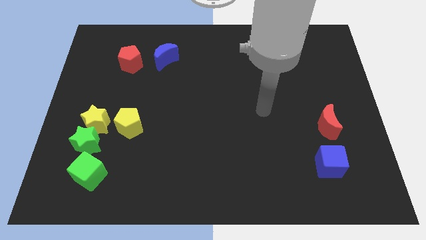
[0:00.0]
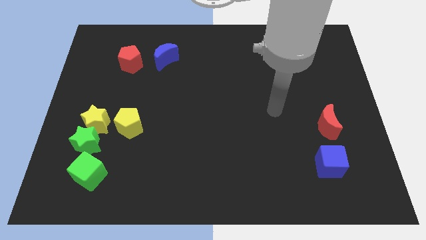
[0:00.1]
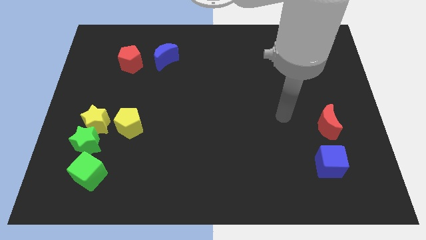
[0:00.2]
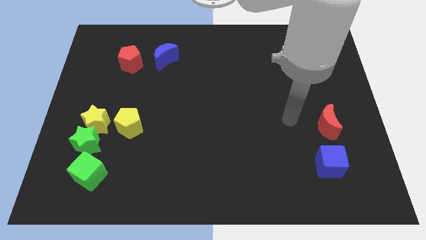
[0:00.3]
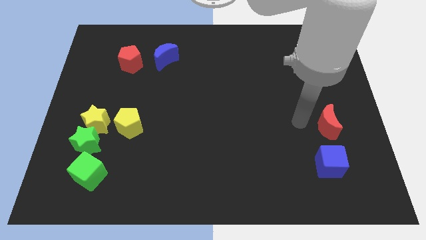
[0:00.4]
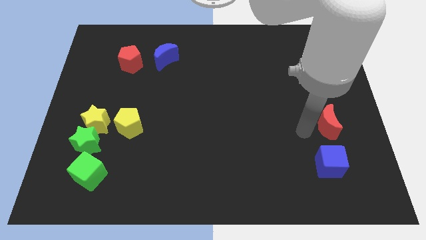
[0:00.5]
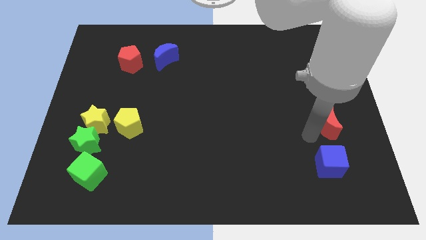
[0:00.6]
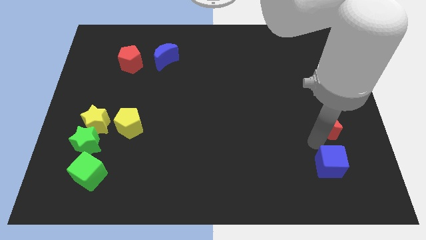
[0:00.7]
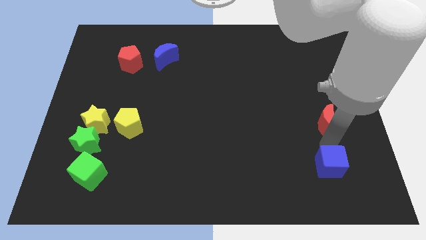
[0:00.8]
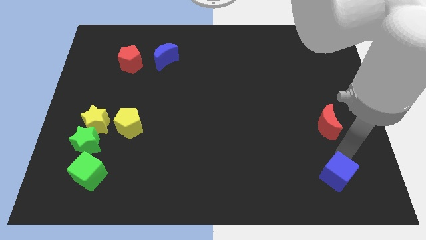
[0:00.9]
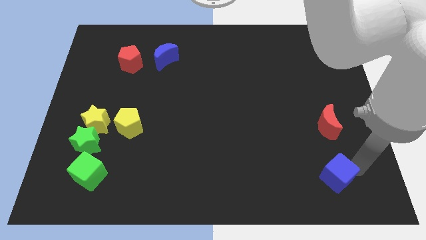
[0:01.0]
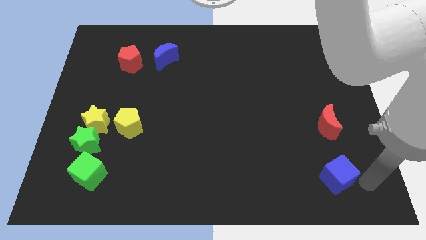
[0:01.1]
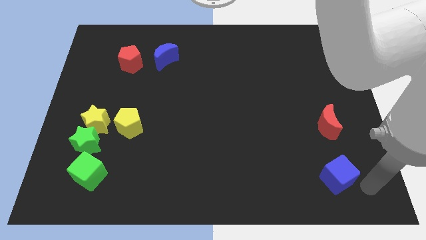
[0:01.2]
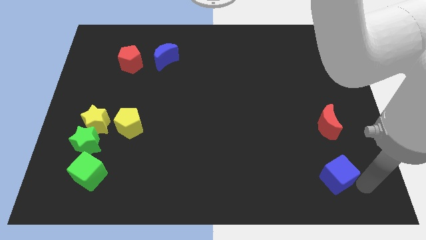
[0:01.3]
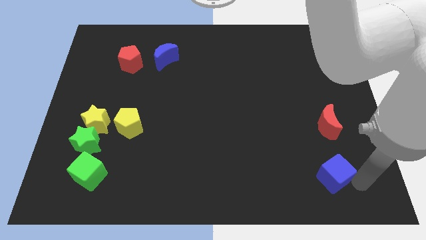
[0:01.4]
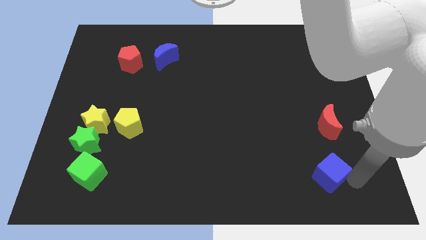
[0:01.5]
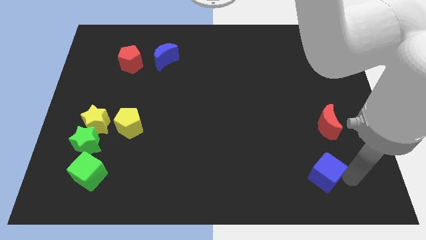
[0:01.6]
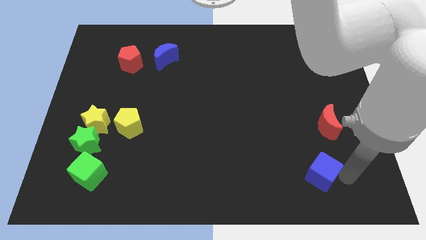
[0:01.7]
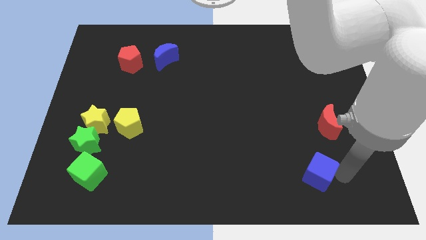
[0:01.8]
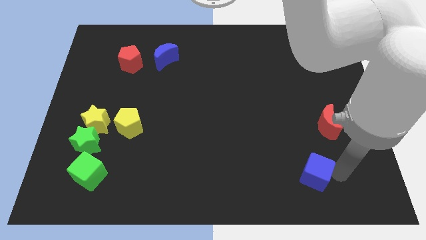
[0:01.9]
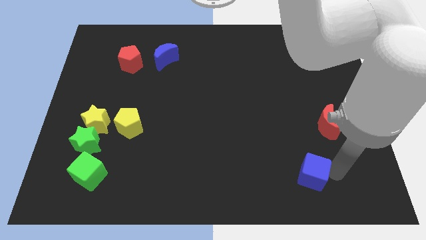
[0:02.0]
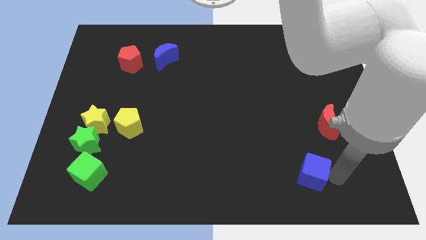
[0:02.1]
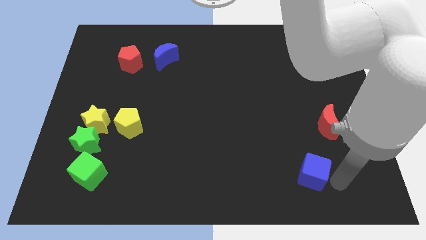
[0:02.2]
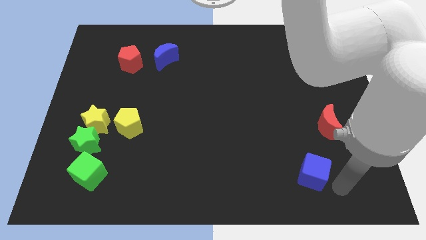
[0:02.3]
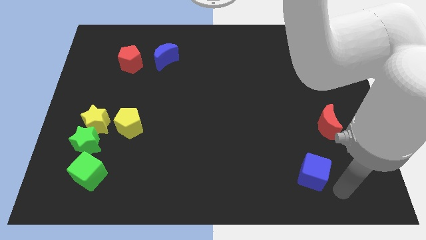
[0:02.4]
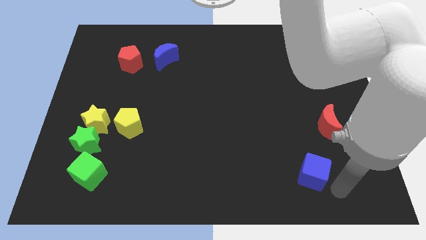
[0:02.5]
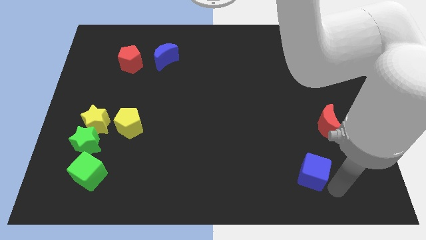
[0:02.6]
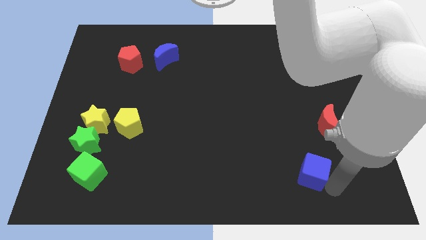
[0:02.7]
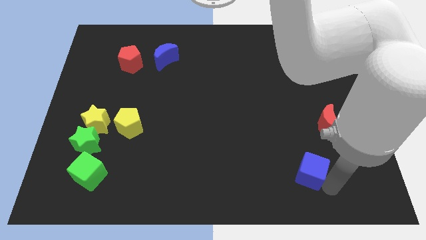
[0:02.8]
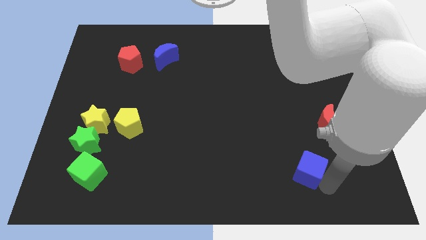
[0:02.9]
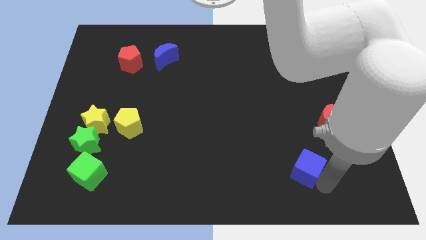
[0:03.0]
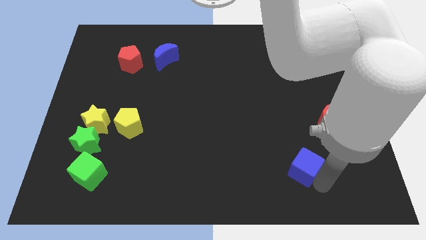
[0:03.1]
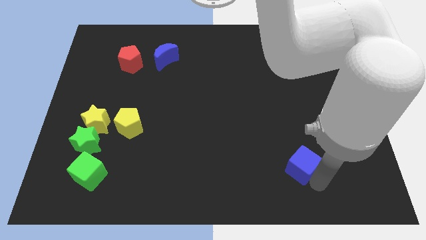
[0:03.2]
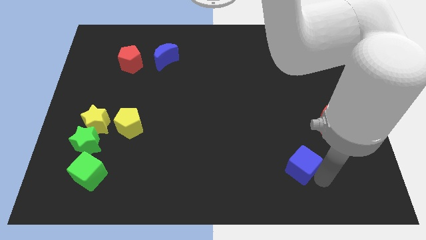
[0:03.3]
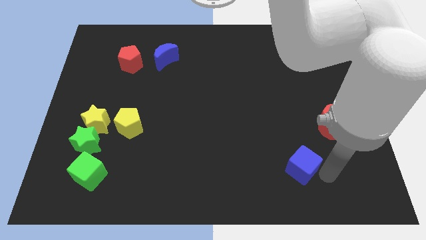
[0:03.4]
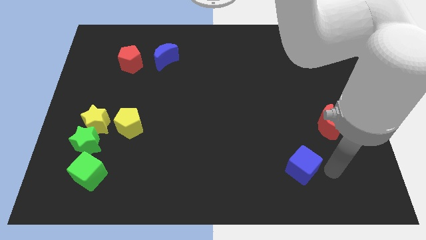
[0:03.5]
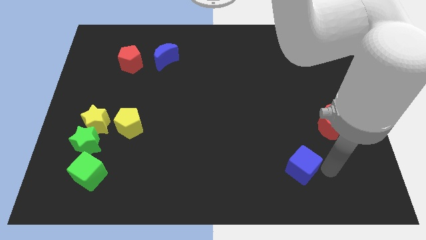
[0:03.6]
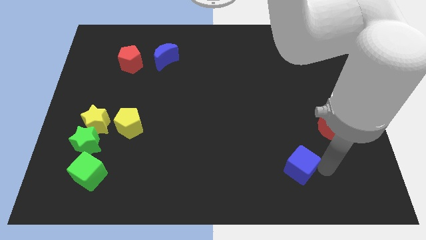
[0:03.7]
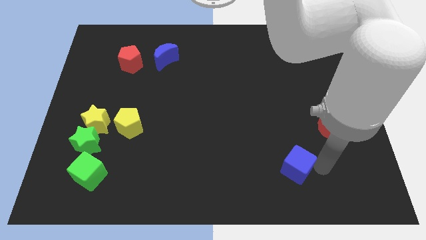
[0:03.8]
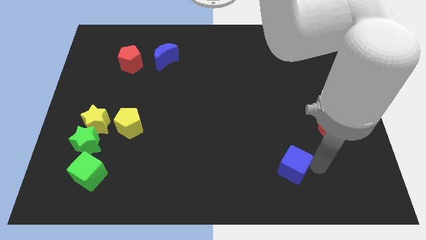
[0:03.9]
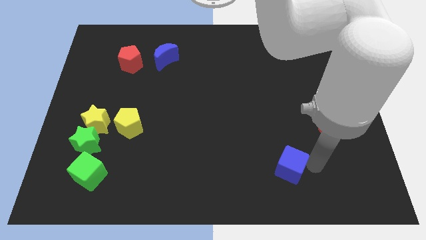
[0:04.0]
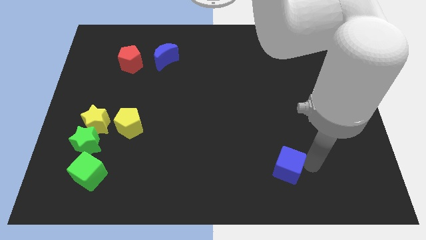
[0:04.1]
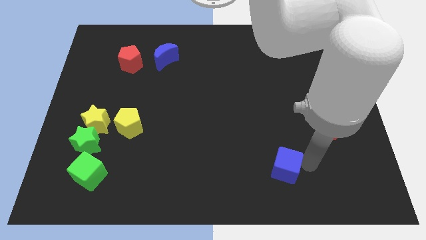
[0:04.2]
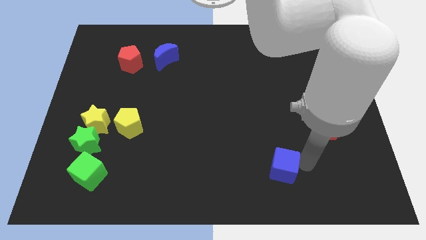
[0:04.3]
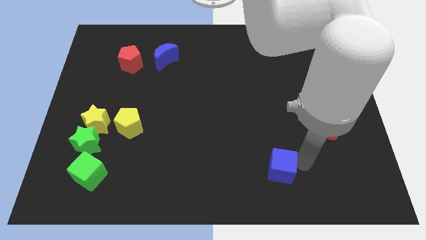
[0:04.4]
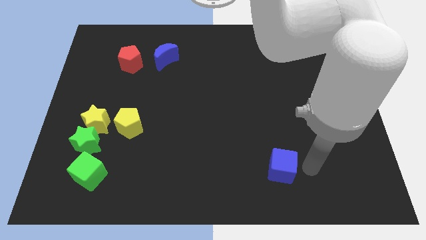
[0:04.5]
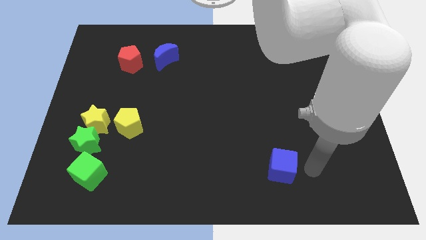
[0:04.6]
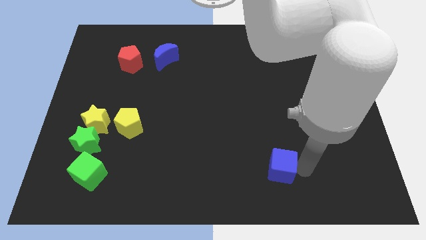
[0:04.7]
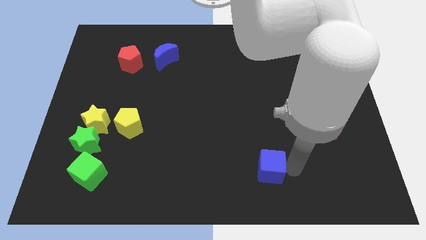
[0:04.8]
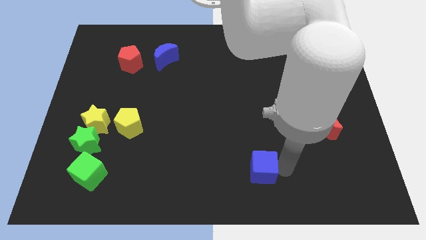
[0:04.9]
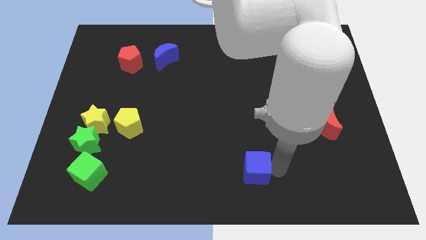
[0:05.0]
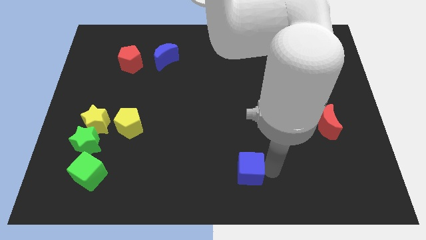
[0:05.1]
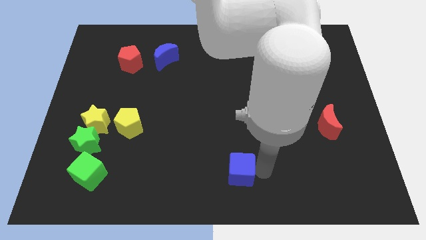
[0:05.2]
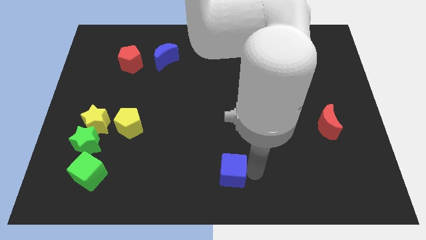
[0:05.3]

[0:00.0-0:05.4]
push the blue cube to the left

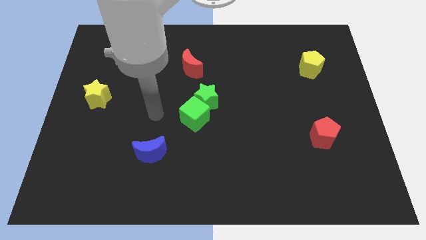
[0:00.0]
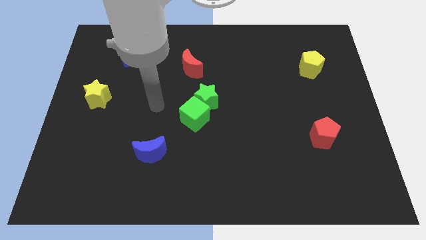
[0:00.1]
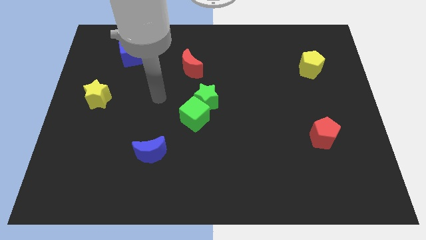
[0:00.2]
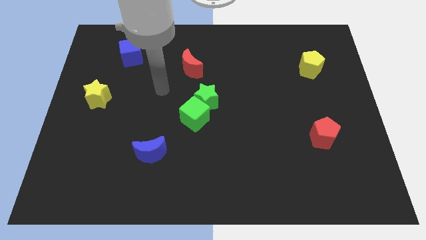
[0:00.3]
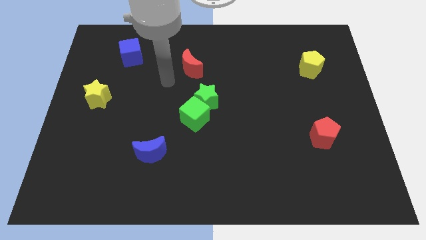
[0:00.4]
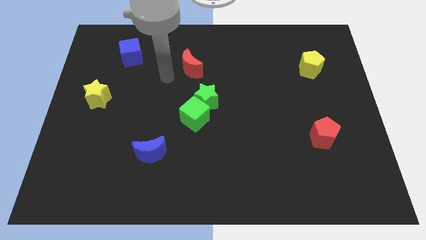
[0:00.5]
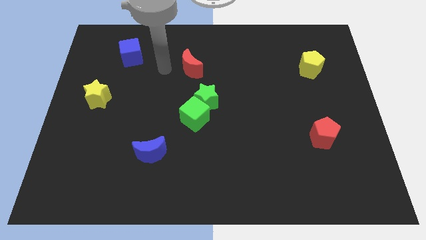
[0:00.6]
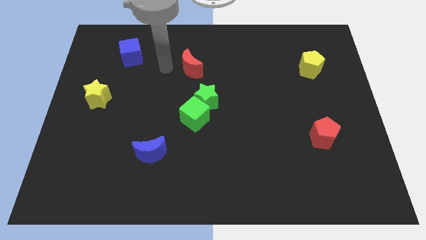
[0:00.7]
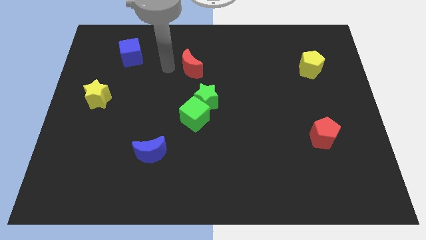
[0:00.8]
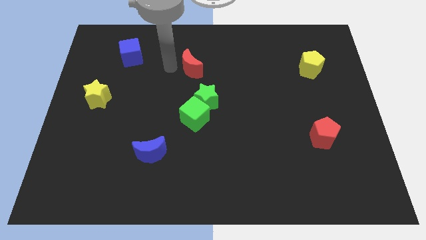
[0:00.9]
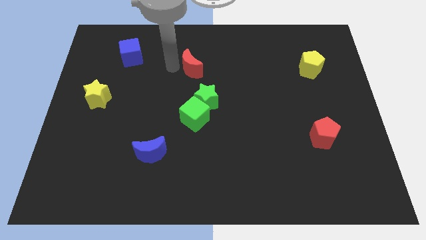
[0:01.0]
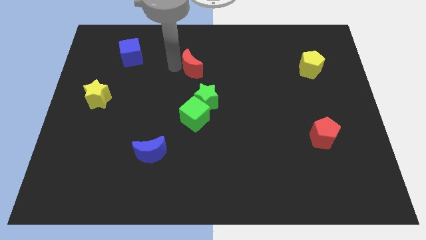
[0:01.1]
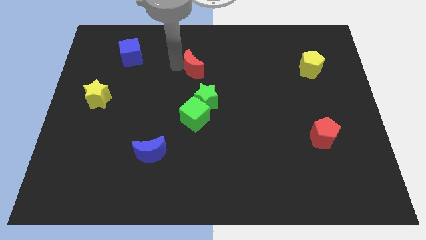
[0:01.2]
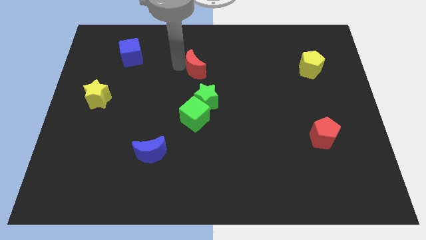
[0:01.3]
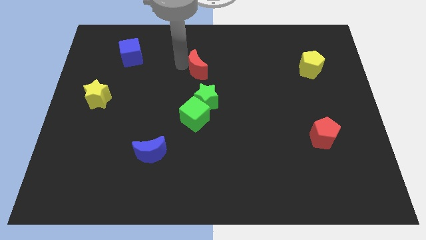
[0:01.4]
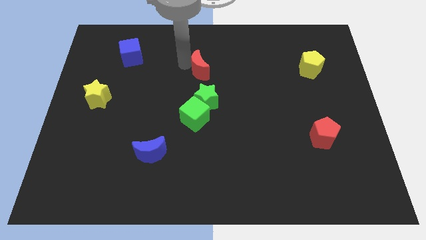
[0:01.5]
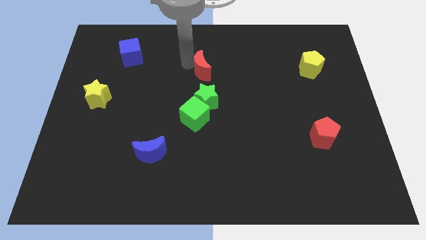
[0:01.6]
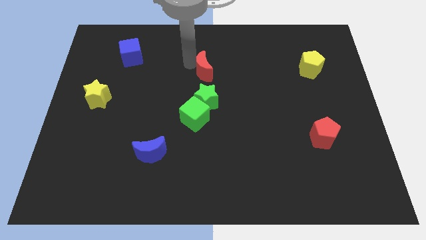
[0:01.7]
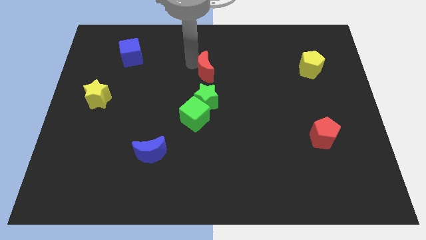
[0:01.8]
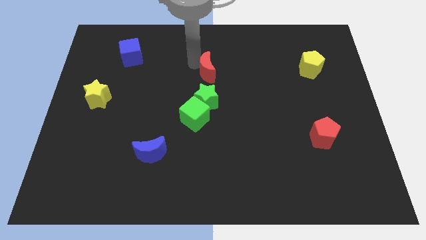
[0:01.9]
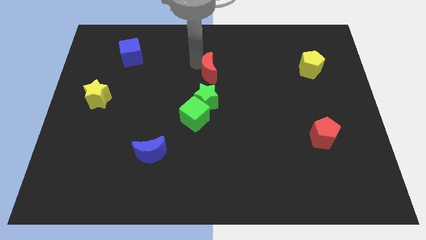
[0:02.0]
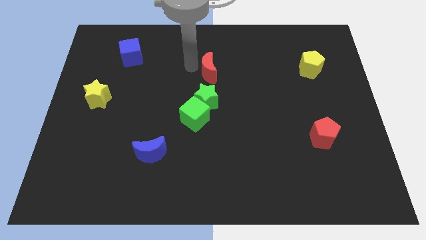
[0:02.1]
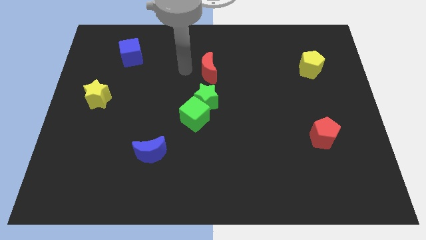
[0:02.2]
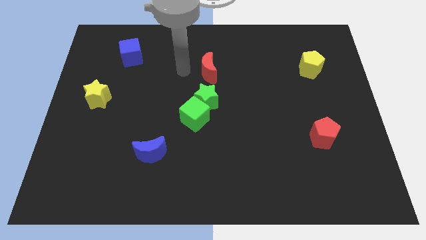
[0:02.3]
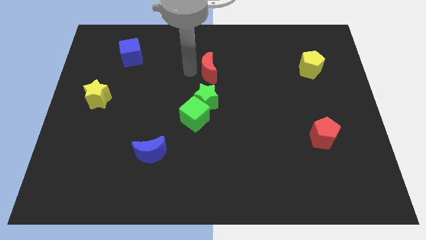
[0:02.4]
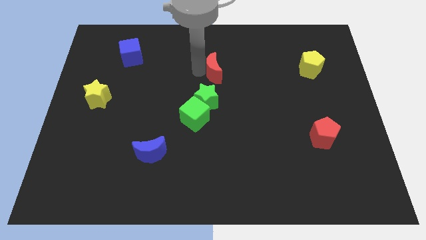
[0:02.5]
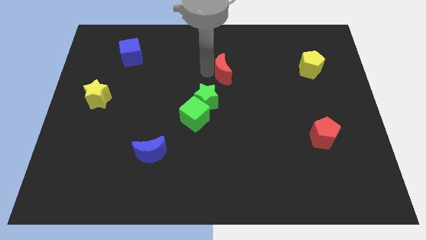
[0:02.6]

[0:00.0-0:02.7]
move the red moon a bit right

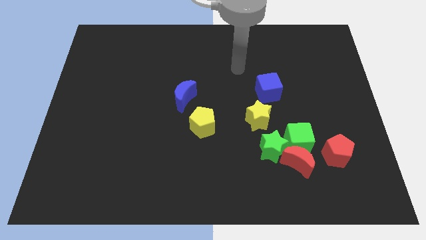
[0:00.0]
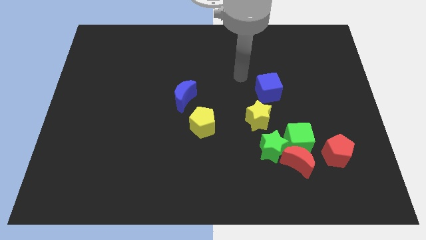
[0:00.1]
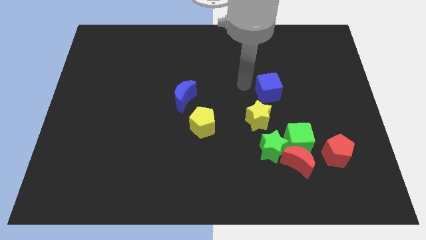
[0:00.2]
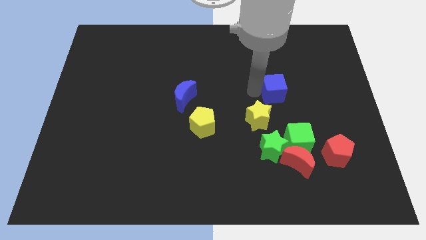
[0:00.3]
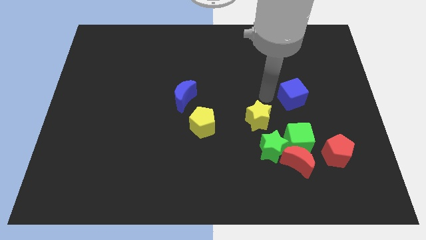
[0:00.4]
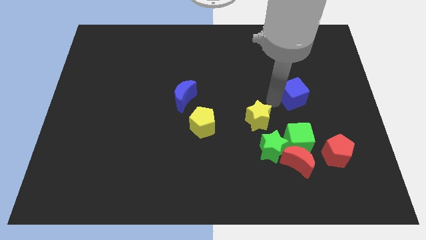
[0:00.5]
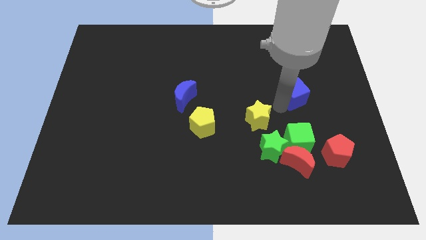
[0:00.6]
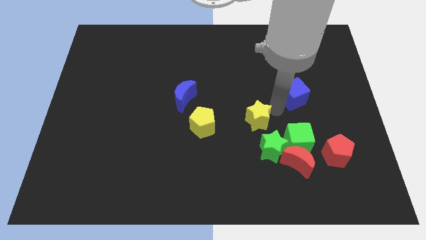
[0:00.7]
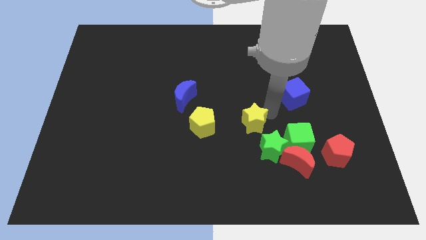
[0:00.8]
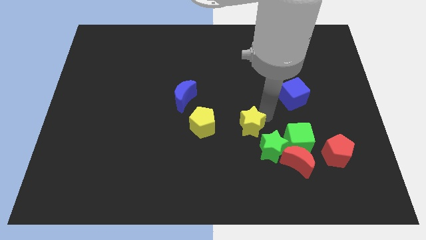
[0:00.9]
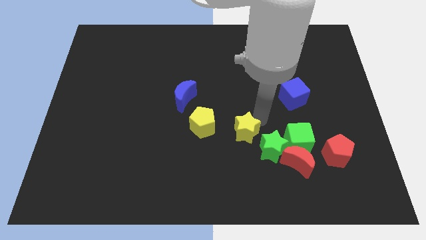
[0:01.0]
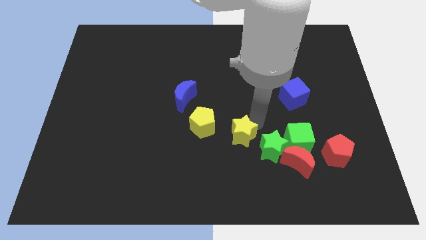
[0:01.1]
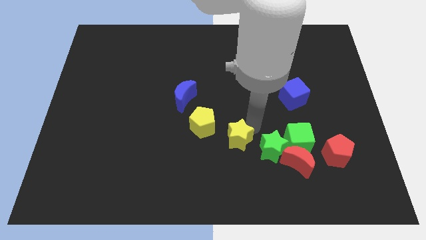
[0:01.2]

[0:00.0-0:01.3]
slightly move the yellow star diagonally downwards and left
